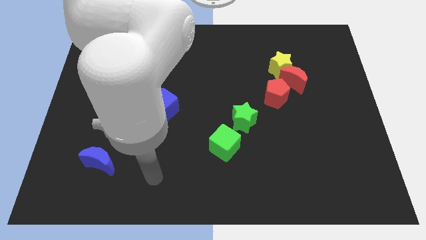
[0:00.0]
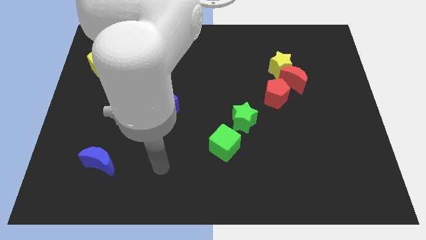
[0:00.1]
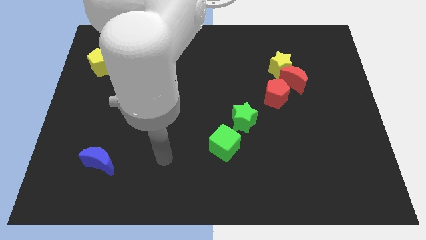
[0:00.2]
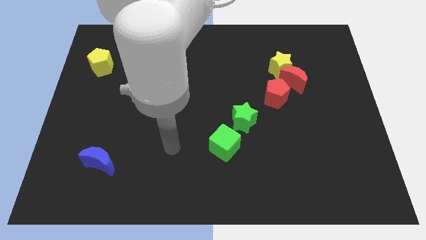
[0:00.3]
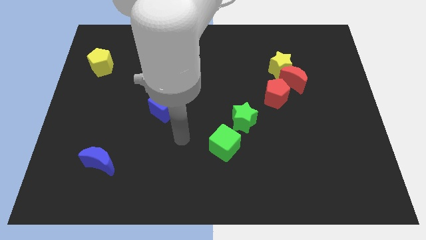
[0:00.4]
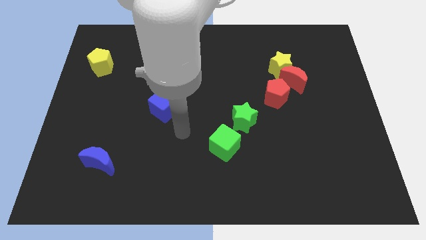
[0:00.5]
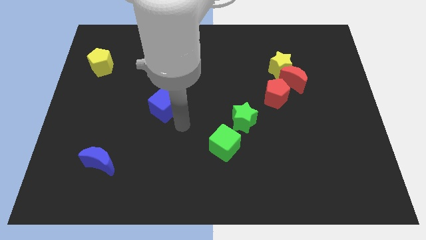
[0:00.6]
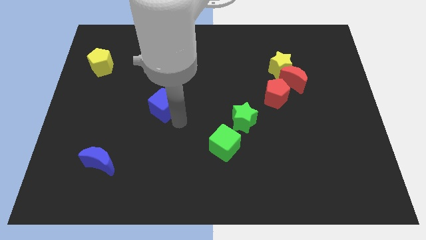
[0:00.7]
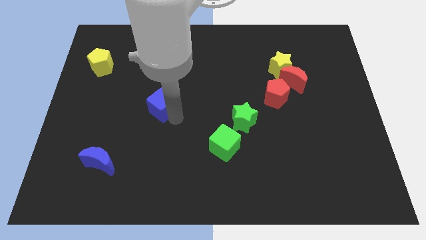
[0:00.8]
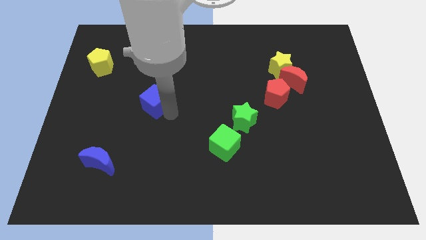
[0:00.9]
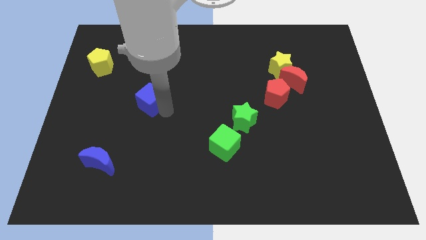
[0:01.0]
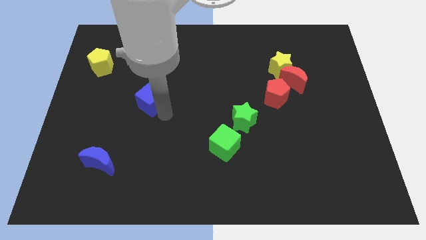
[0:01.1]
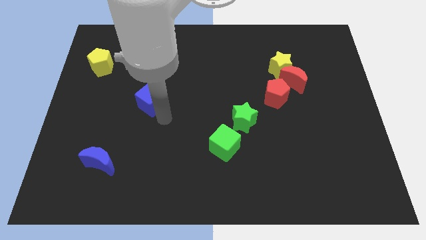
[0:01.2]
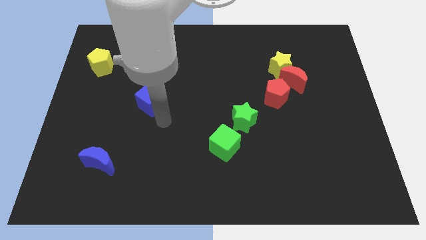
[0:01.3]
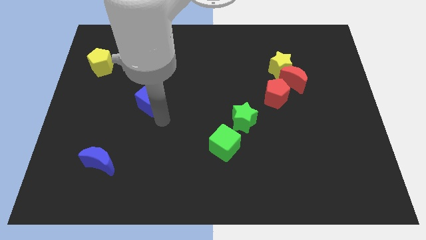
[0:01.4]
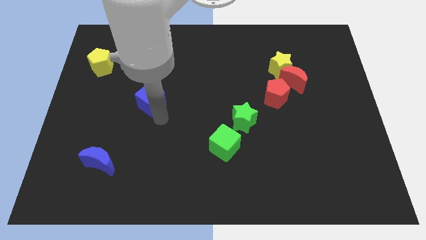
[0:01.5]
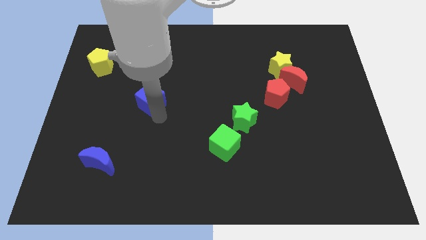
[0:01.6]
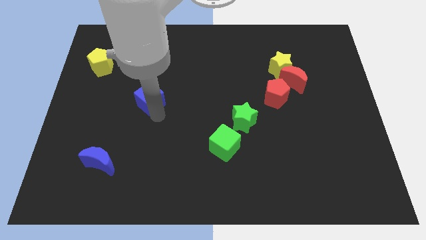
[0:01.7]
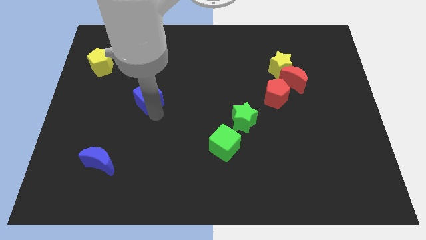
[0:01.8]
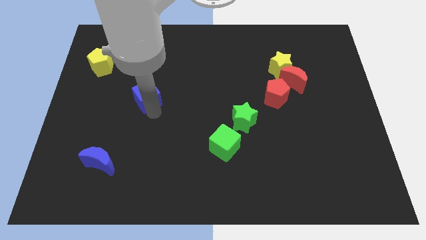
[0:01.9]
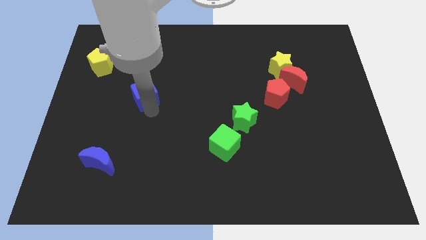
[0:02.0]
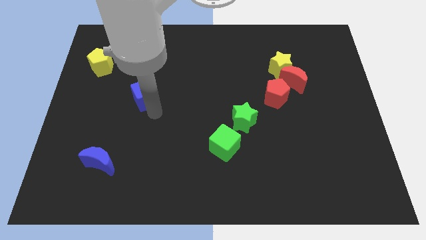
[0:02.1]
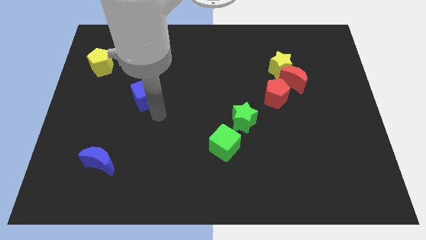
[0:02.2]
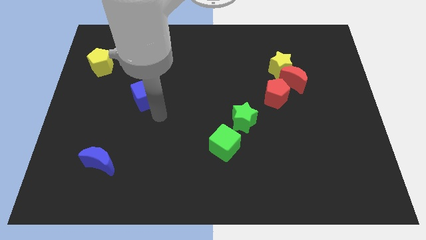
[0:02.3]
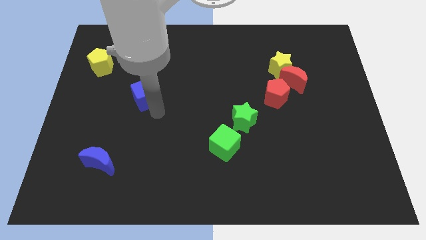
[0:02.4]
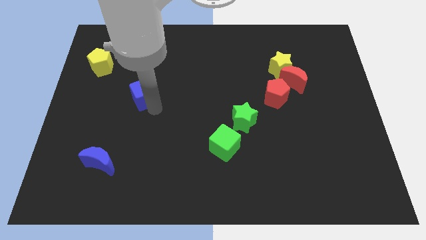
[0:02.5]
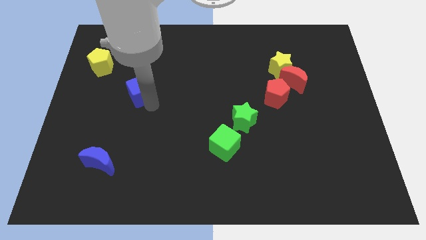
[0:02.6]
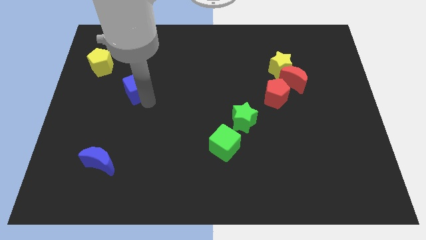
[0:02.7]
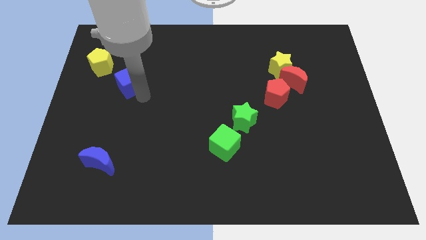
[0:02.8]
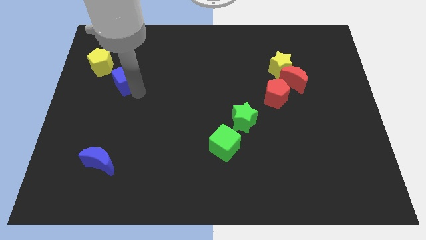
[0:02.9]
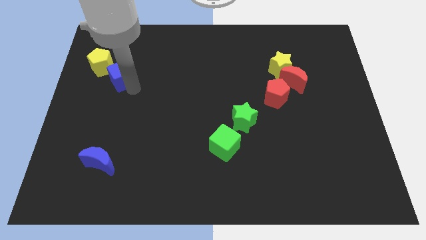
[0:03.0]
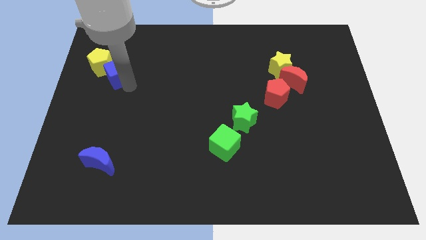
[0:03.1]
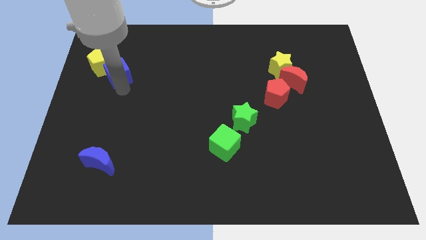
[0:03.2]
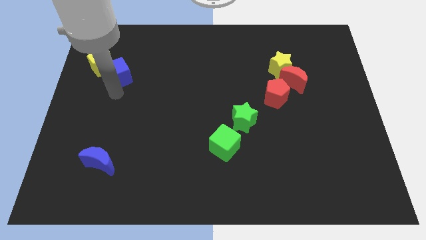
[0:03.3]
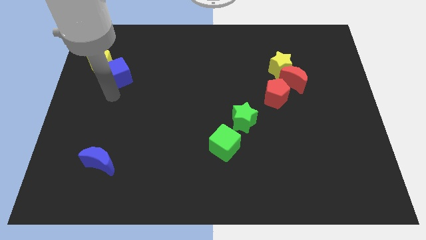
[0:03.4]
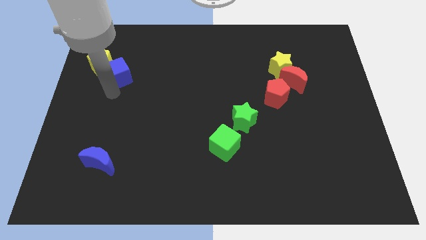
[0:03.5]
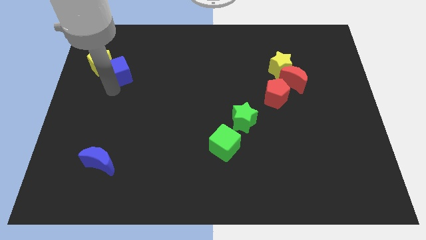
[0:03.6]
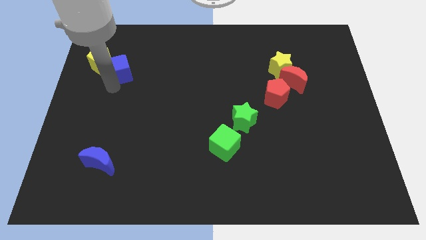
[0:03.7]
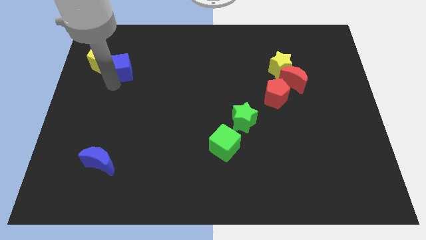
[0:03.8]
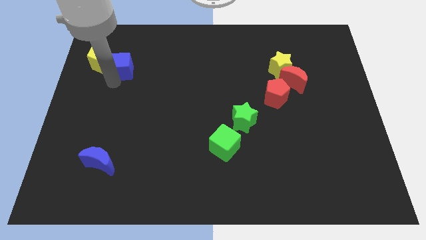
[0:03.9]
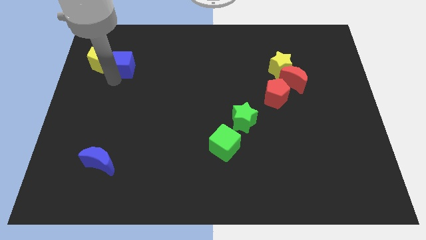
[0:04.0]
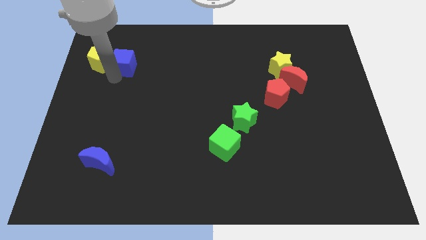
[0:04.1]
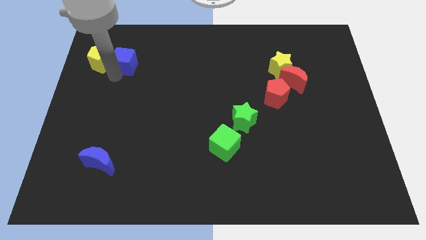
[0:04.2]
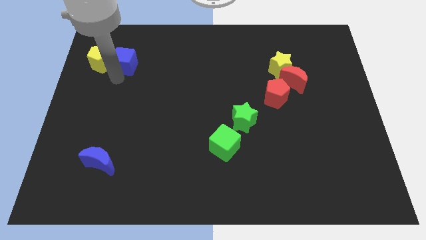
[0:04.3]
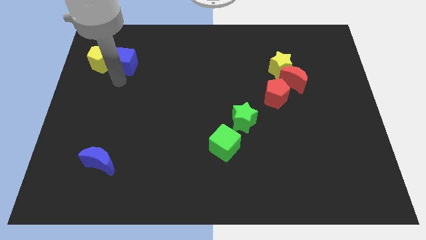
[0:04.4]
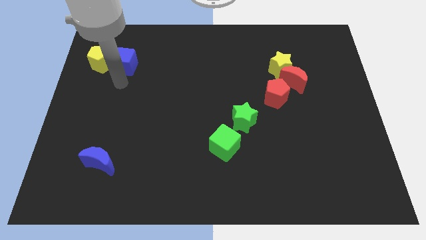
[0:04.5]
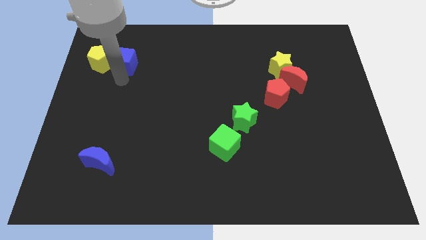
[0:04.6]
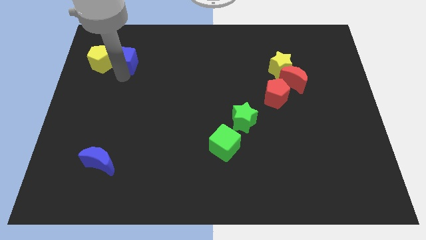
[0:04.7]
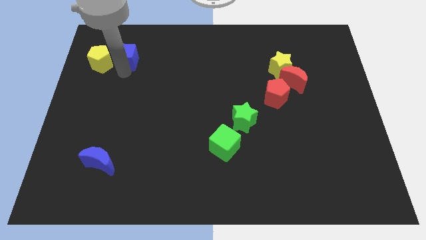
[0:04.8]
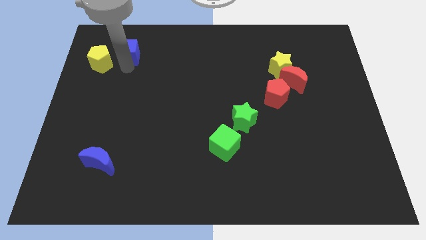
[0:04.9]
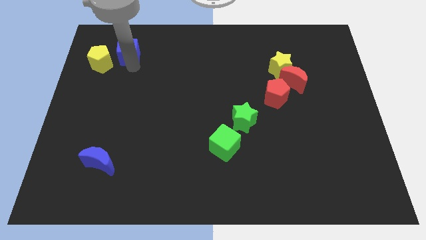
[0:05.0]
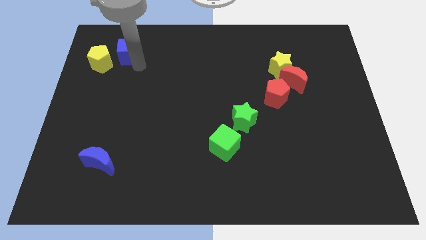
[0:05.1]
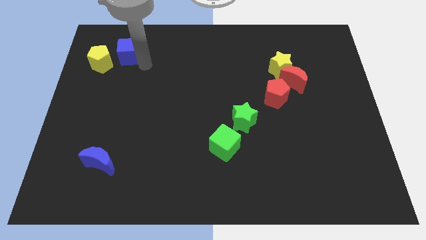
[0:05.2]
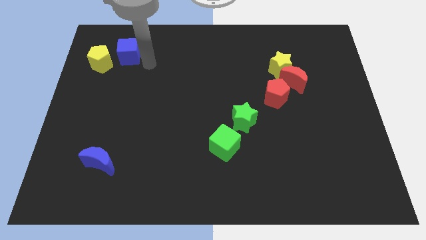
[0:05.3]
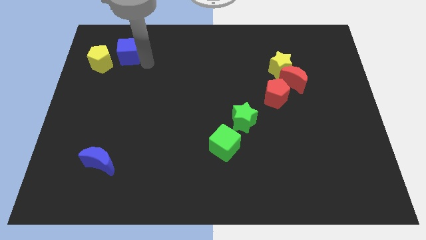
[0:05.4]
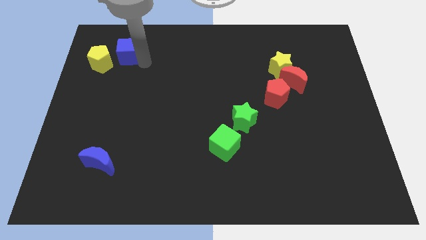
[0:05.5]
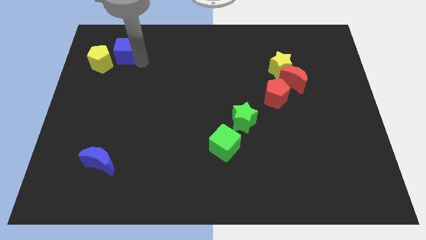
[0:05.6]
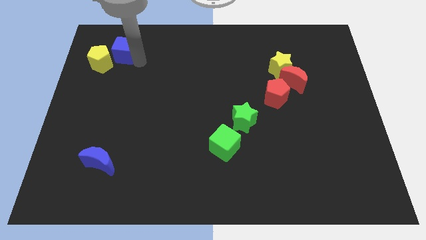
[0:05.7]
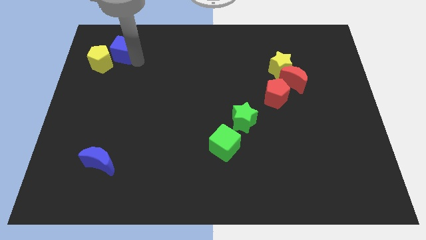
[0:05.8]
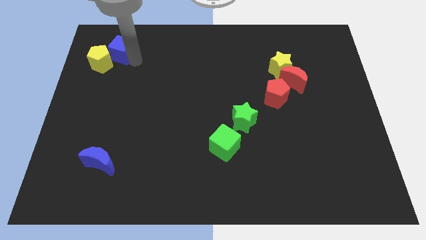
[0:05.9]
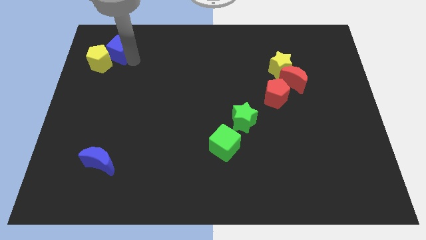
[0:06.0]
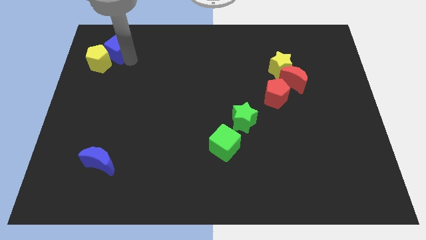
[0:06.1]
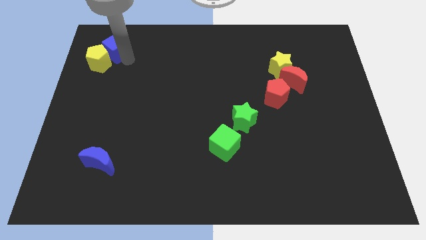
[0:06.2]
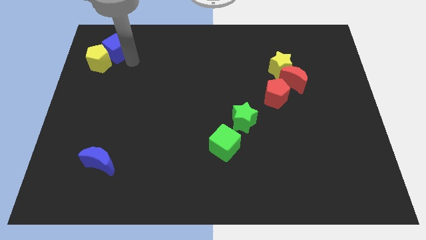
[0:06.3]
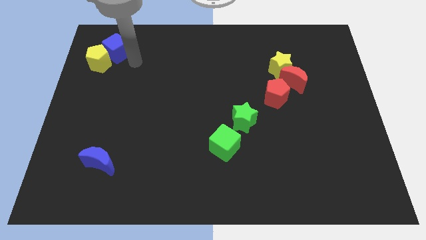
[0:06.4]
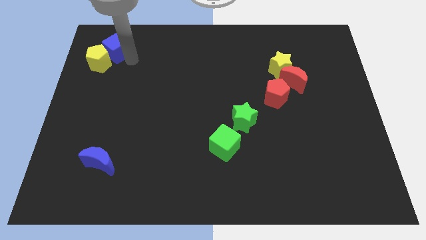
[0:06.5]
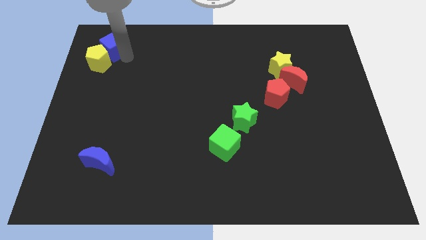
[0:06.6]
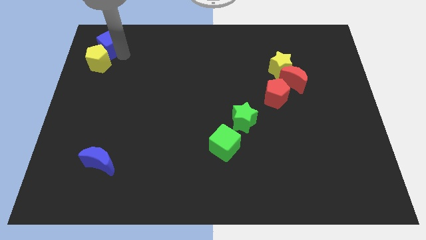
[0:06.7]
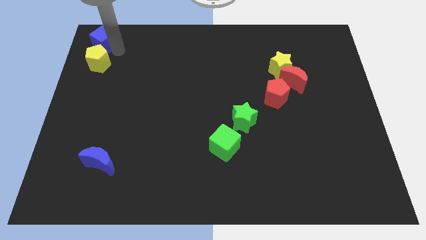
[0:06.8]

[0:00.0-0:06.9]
put the blue cube to the upper left corner

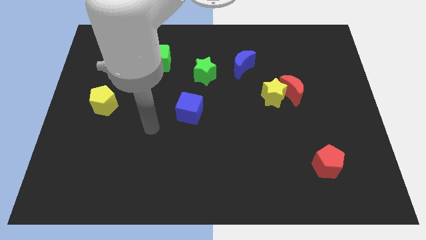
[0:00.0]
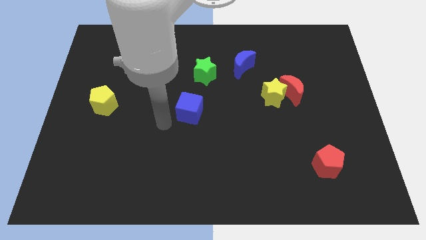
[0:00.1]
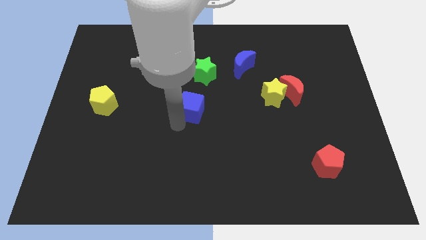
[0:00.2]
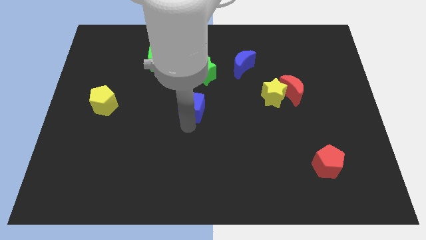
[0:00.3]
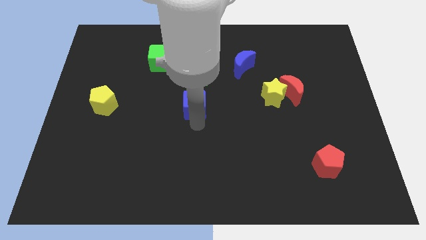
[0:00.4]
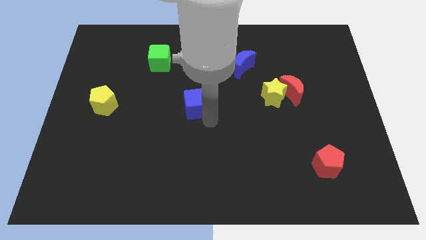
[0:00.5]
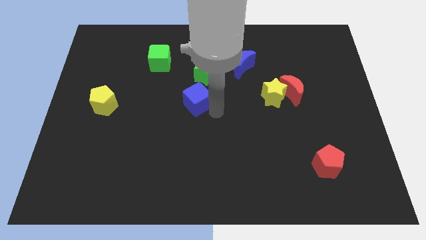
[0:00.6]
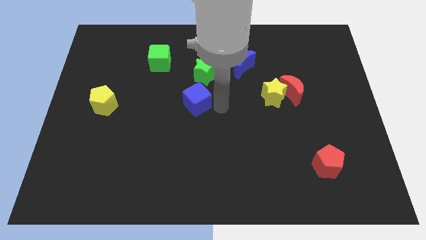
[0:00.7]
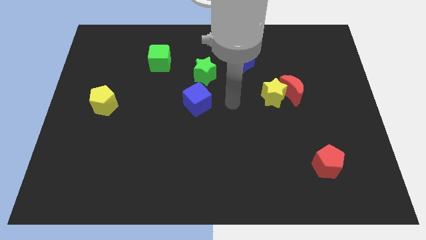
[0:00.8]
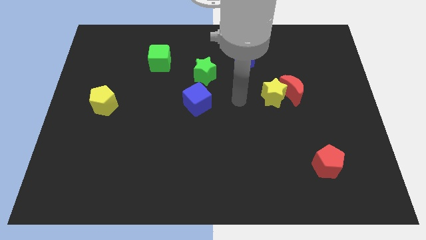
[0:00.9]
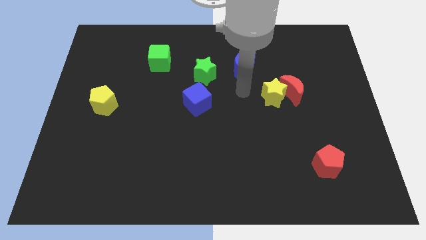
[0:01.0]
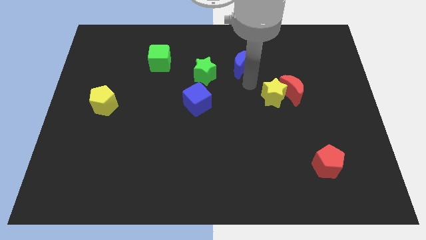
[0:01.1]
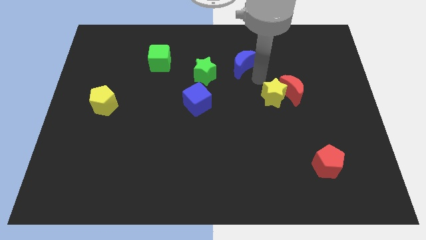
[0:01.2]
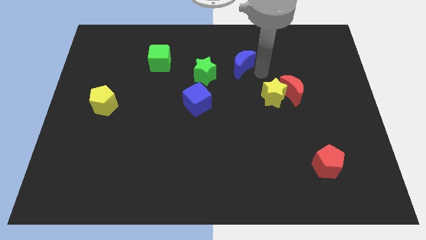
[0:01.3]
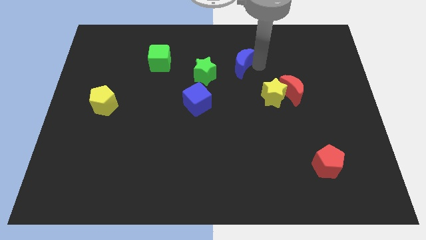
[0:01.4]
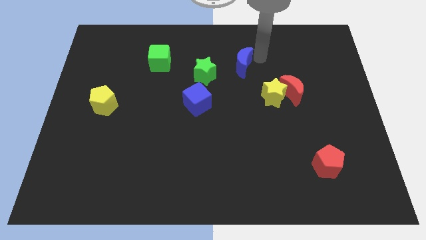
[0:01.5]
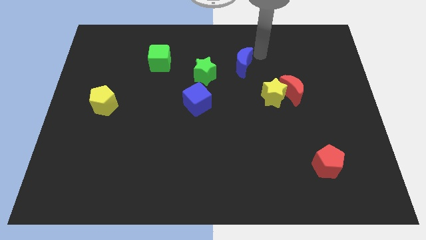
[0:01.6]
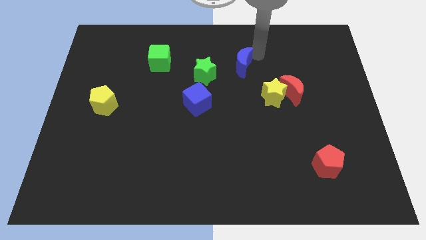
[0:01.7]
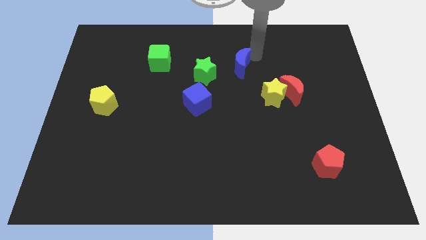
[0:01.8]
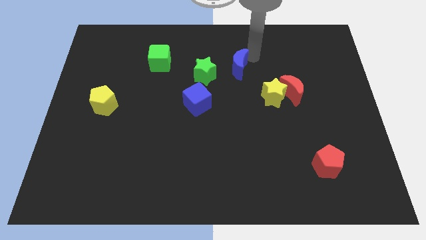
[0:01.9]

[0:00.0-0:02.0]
move the blue moon to the middle of the board
